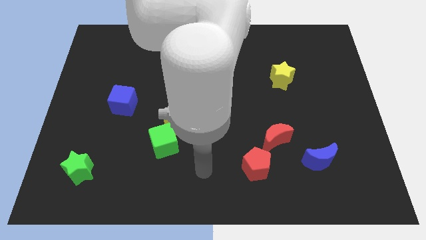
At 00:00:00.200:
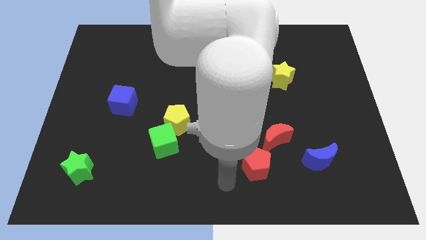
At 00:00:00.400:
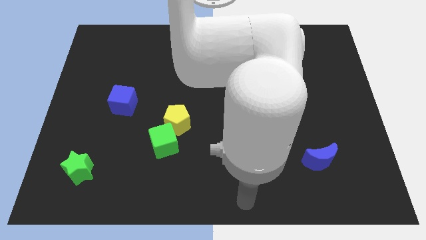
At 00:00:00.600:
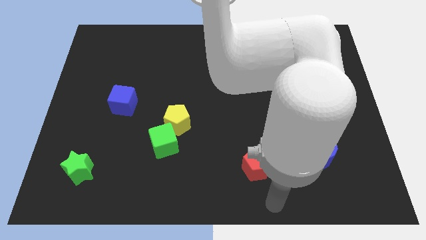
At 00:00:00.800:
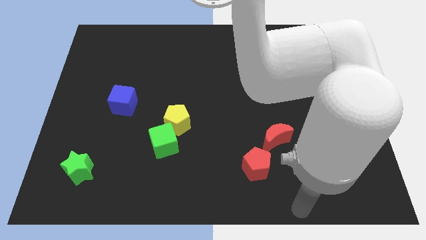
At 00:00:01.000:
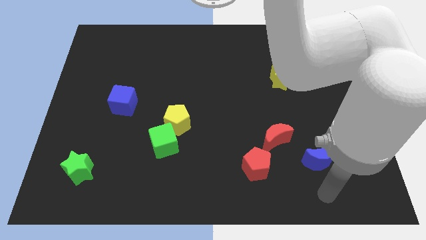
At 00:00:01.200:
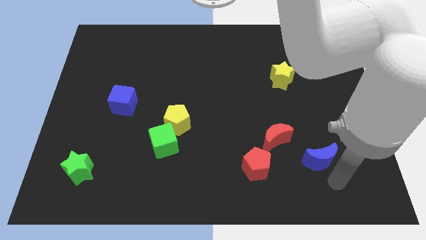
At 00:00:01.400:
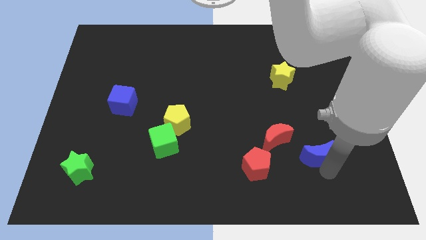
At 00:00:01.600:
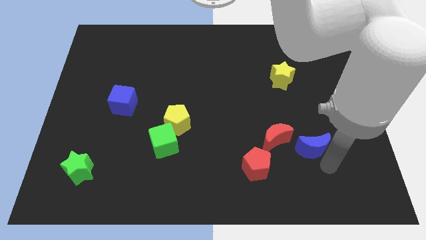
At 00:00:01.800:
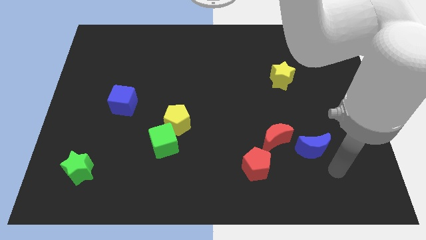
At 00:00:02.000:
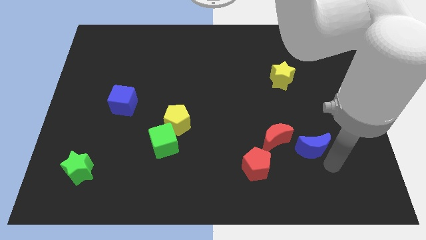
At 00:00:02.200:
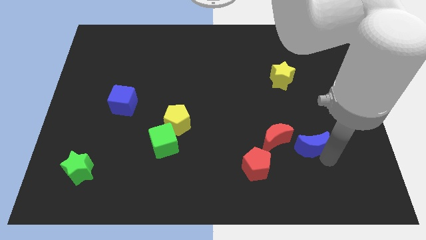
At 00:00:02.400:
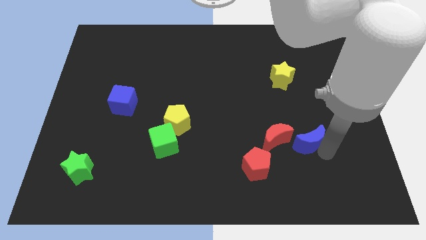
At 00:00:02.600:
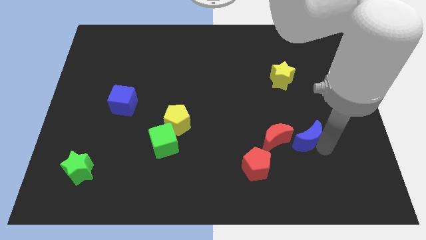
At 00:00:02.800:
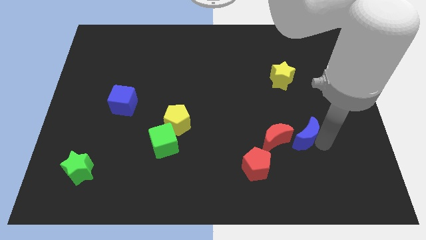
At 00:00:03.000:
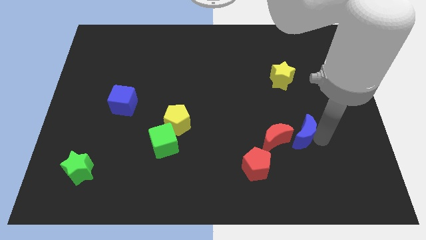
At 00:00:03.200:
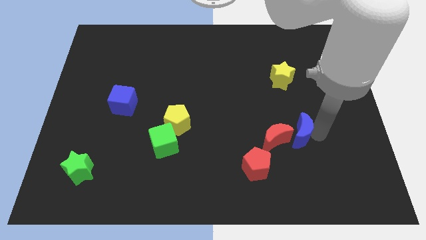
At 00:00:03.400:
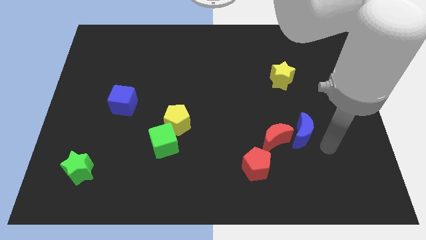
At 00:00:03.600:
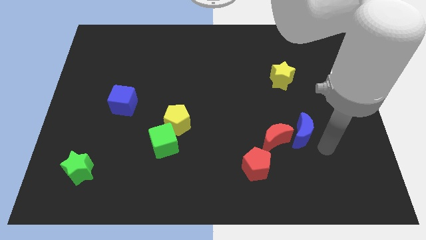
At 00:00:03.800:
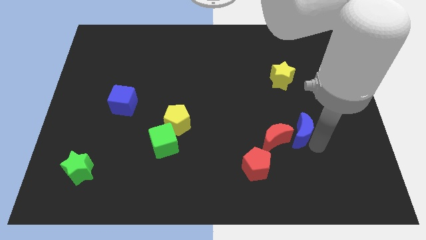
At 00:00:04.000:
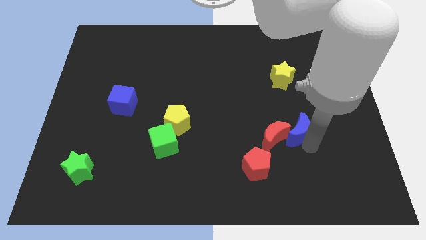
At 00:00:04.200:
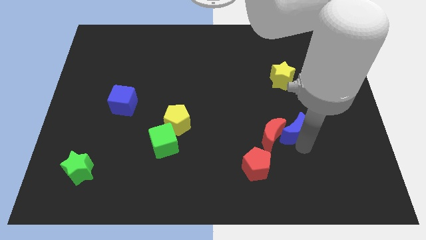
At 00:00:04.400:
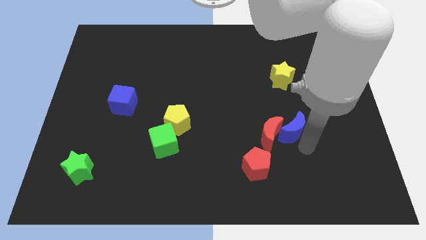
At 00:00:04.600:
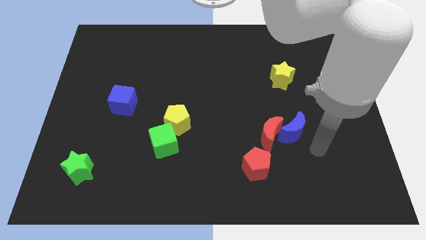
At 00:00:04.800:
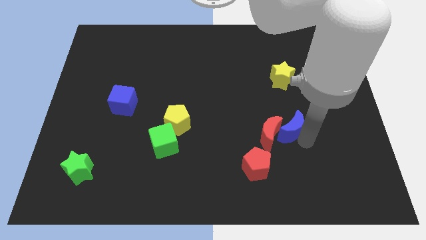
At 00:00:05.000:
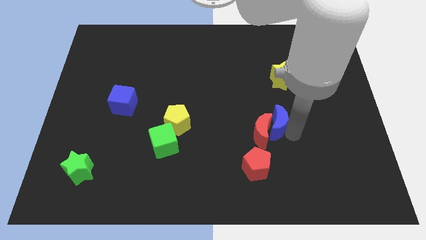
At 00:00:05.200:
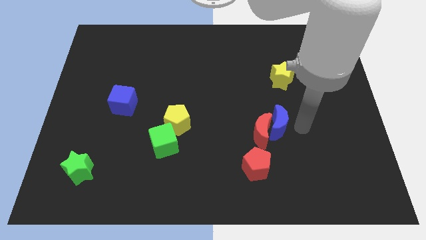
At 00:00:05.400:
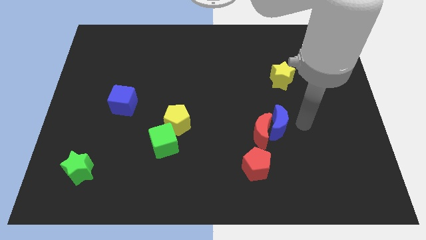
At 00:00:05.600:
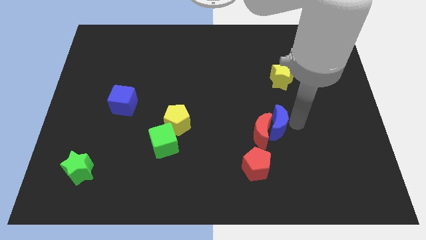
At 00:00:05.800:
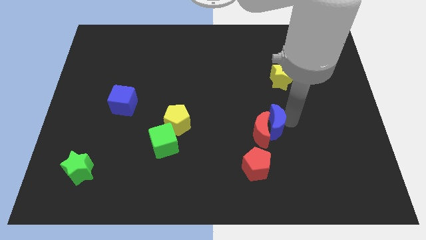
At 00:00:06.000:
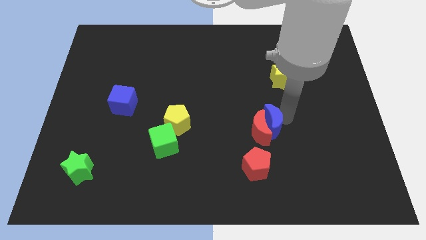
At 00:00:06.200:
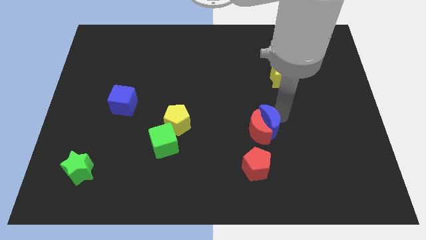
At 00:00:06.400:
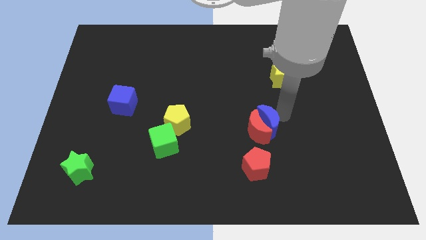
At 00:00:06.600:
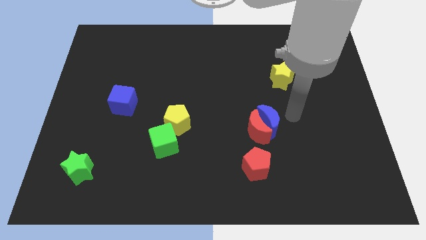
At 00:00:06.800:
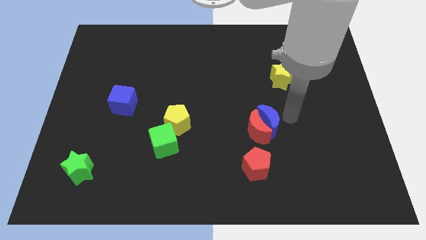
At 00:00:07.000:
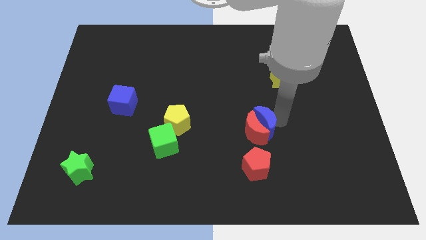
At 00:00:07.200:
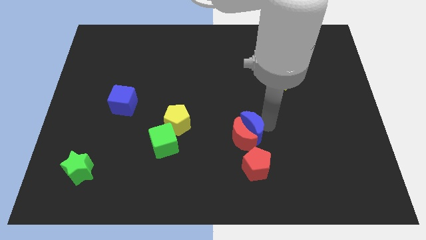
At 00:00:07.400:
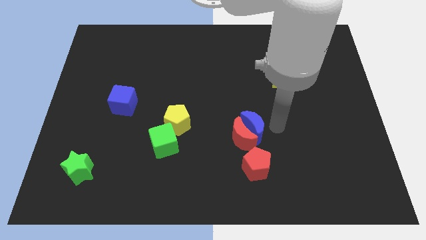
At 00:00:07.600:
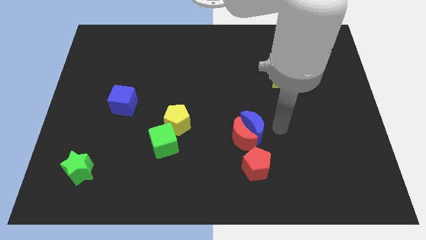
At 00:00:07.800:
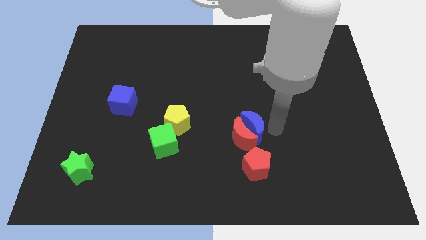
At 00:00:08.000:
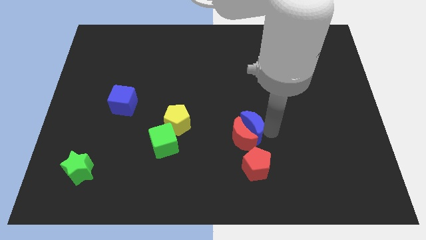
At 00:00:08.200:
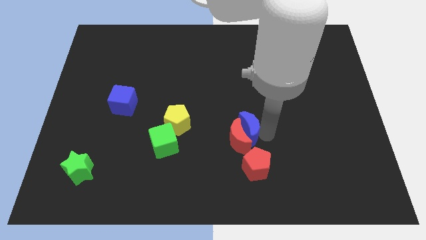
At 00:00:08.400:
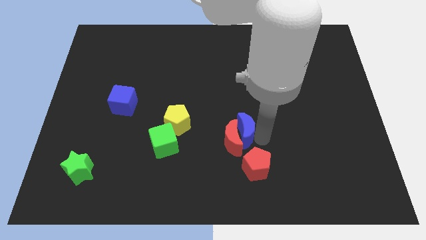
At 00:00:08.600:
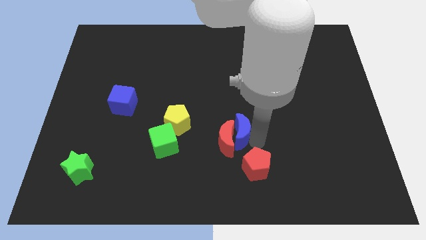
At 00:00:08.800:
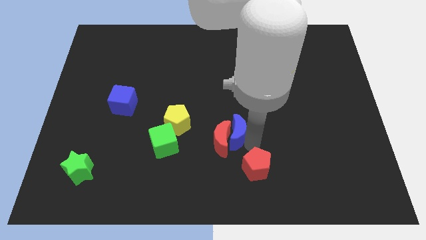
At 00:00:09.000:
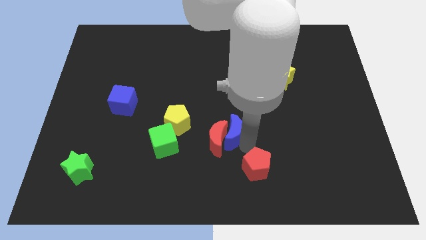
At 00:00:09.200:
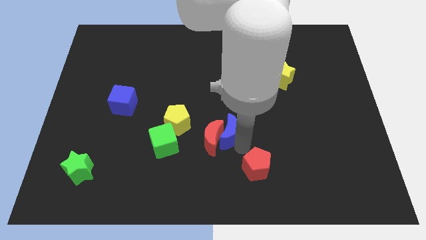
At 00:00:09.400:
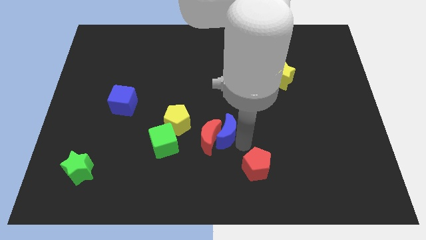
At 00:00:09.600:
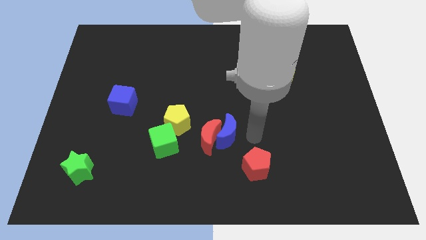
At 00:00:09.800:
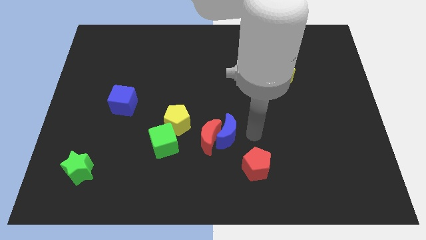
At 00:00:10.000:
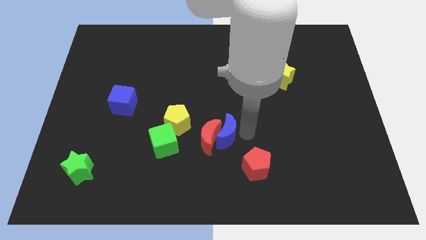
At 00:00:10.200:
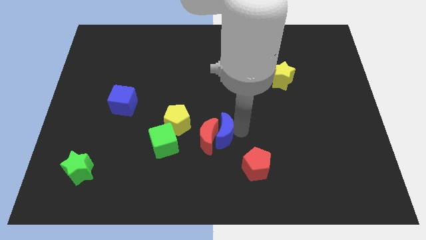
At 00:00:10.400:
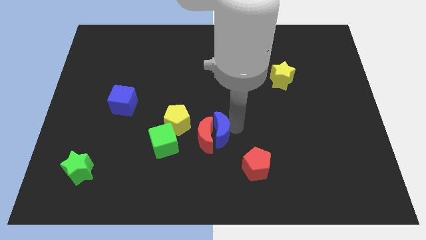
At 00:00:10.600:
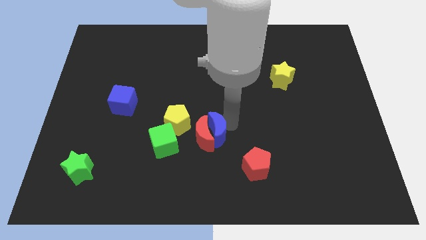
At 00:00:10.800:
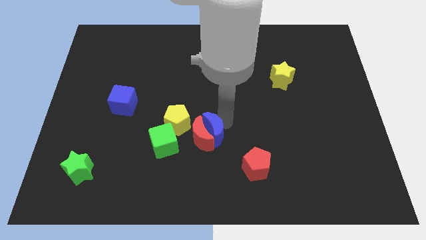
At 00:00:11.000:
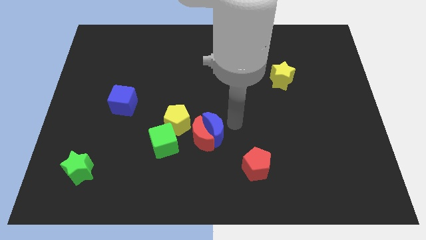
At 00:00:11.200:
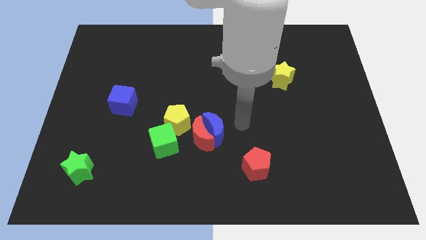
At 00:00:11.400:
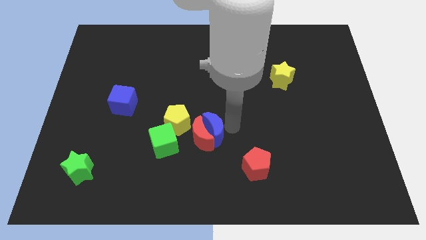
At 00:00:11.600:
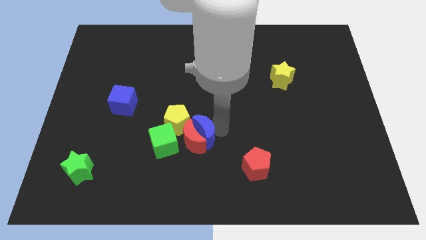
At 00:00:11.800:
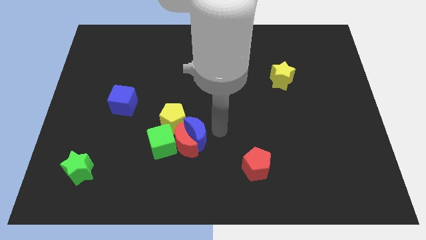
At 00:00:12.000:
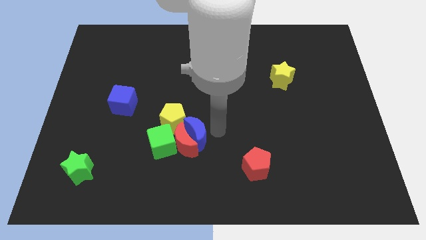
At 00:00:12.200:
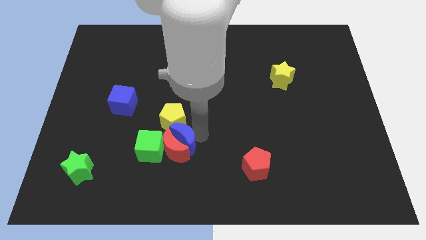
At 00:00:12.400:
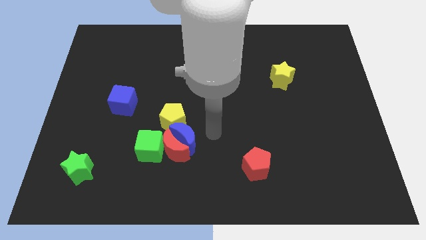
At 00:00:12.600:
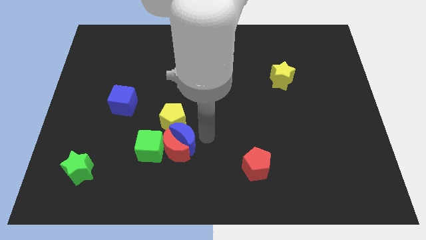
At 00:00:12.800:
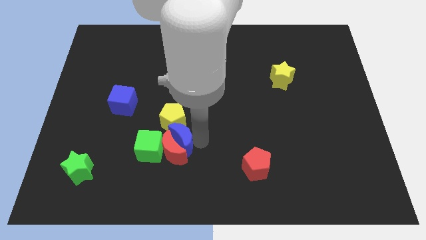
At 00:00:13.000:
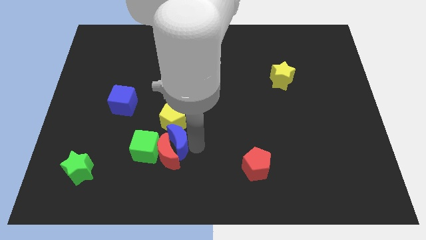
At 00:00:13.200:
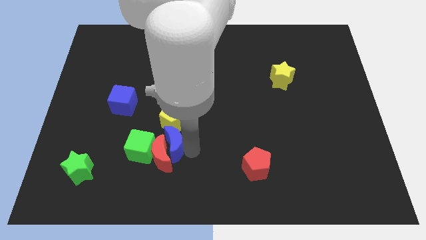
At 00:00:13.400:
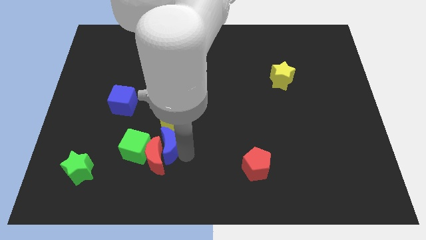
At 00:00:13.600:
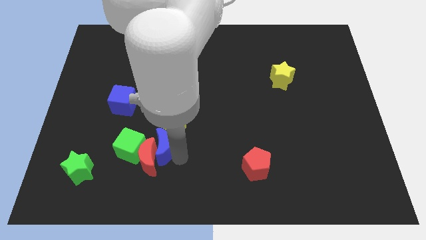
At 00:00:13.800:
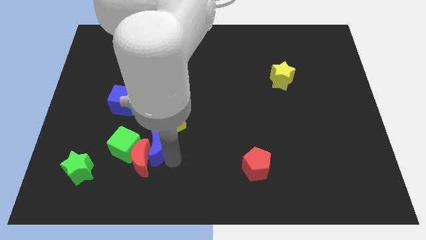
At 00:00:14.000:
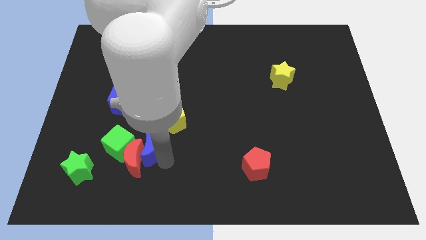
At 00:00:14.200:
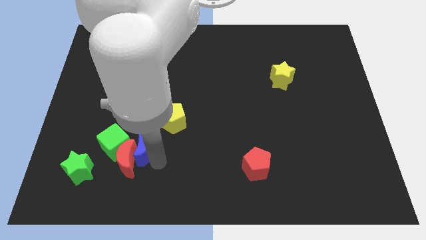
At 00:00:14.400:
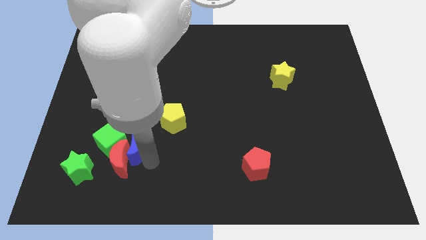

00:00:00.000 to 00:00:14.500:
put the blue moon towards the green cube
